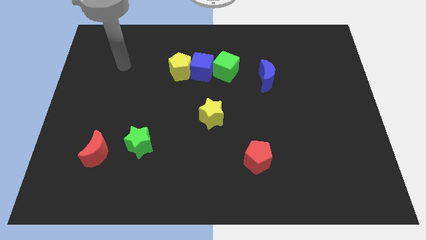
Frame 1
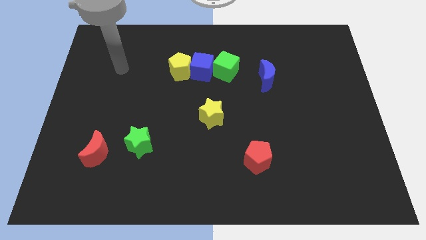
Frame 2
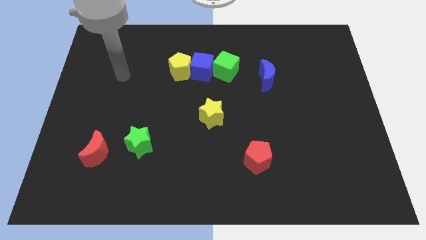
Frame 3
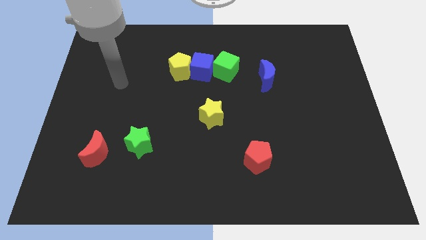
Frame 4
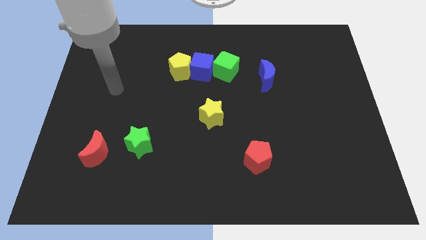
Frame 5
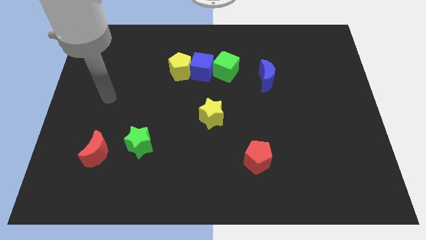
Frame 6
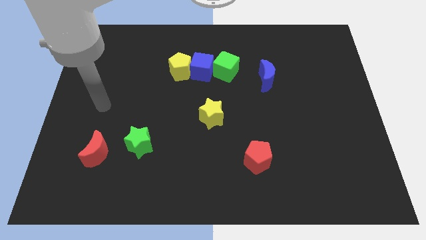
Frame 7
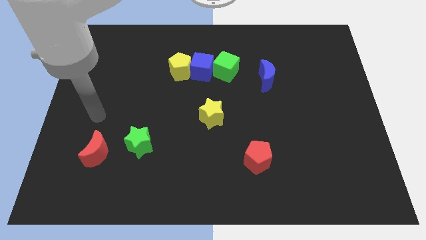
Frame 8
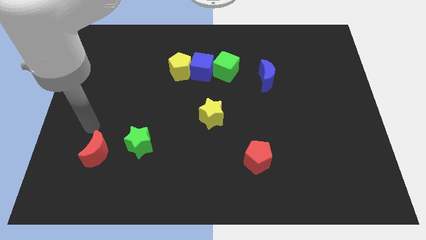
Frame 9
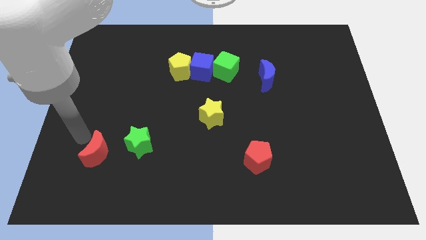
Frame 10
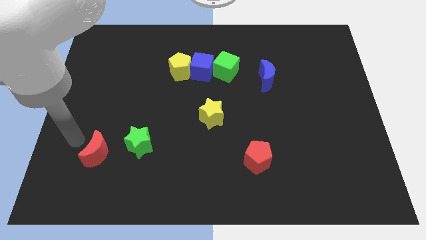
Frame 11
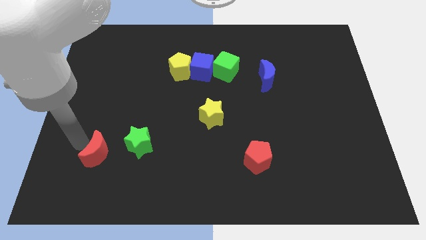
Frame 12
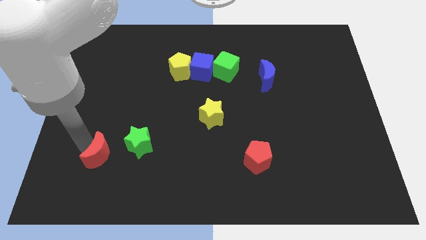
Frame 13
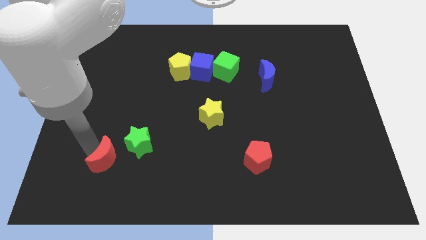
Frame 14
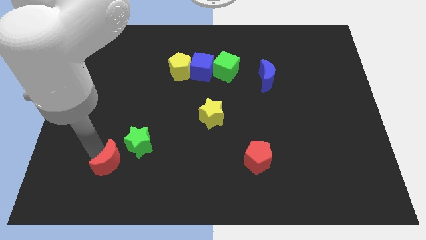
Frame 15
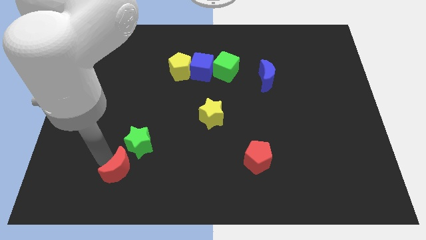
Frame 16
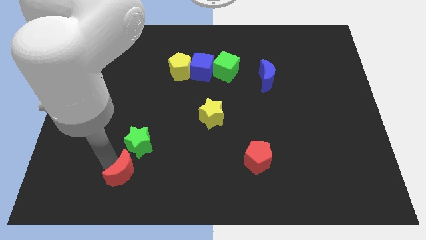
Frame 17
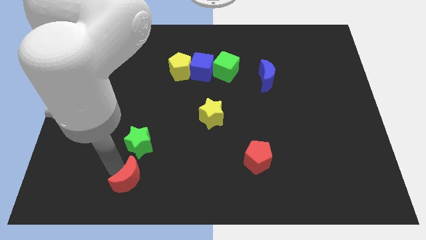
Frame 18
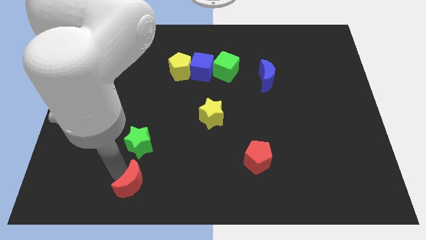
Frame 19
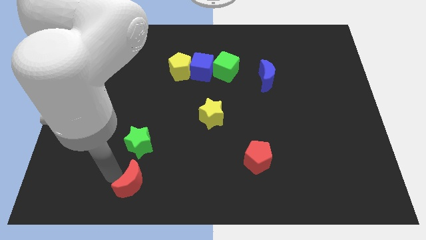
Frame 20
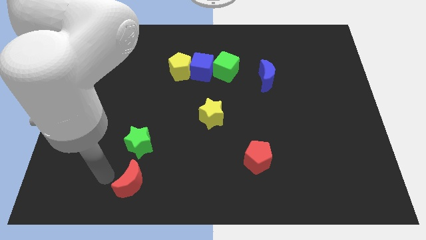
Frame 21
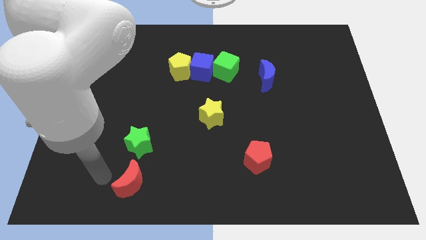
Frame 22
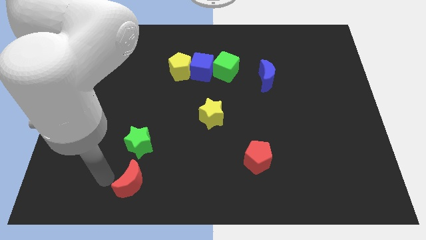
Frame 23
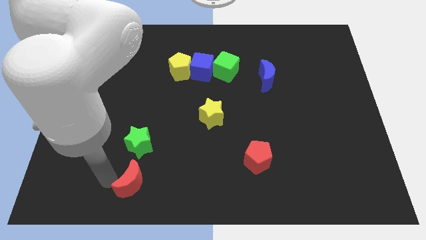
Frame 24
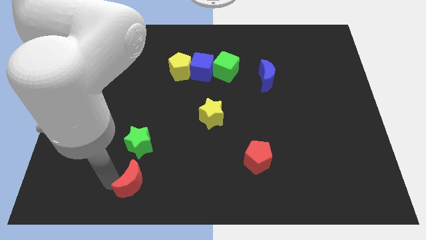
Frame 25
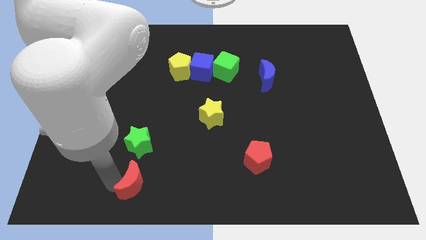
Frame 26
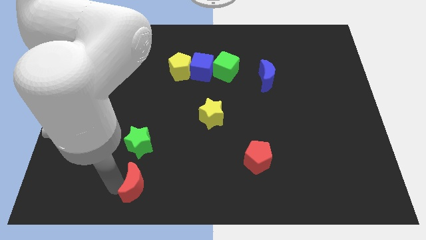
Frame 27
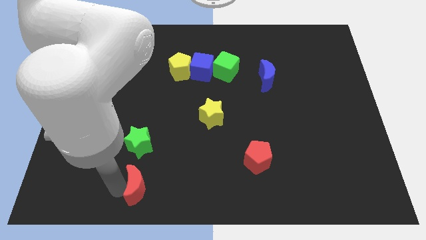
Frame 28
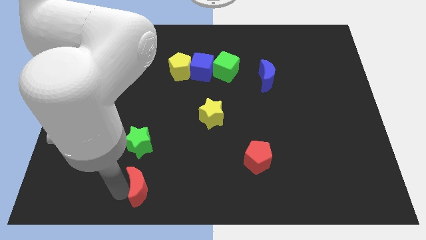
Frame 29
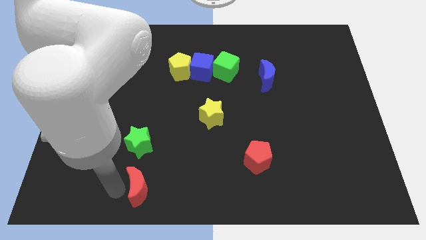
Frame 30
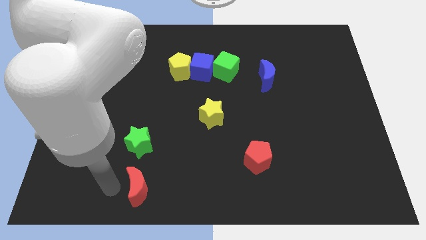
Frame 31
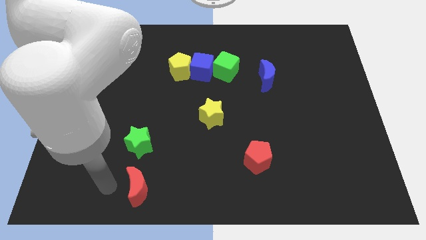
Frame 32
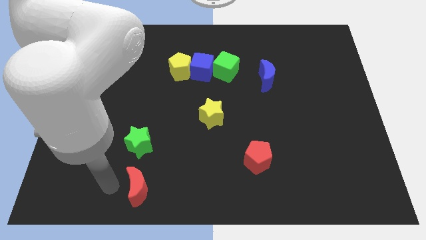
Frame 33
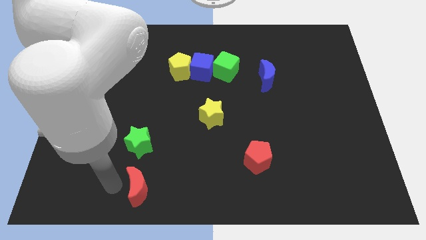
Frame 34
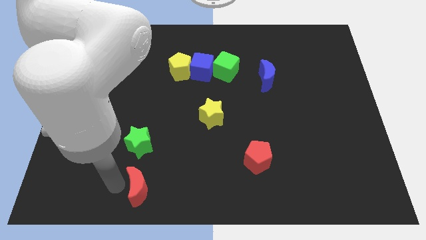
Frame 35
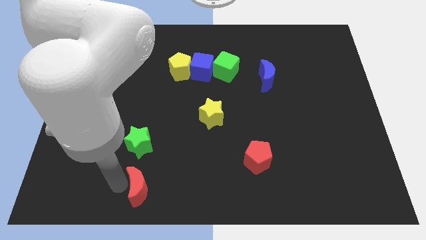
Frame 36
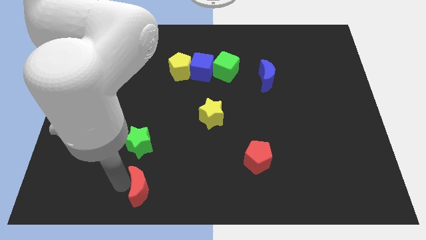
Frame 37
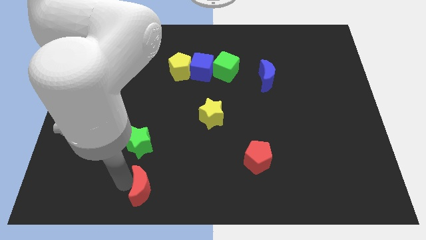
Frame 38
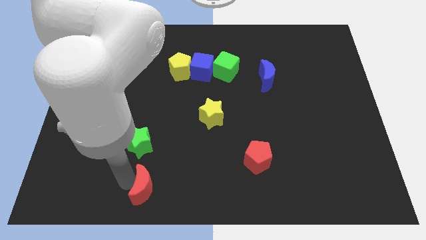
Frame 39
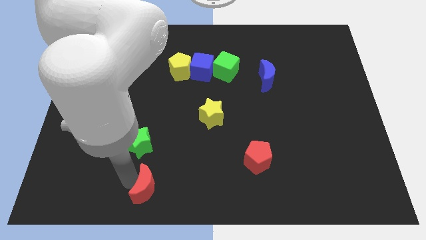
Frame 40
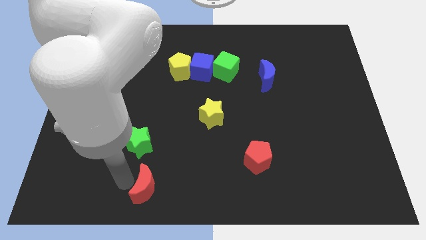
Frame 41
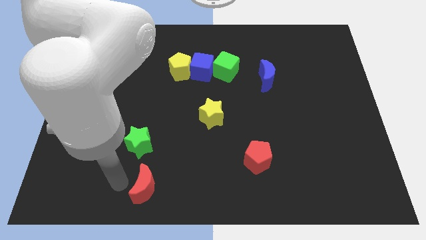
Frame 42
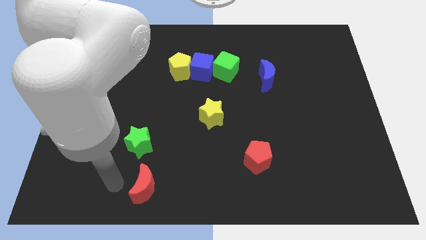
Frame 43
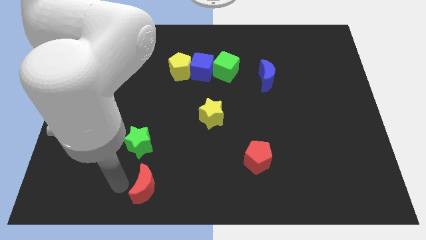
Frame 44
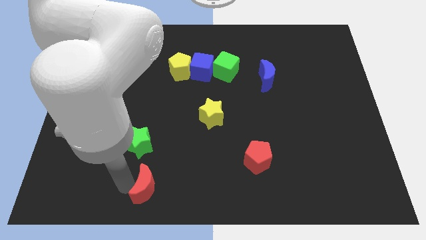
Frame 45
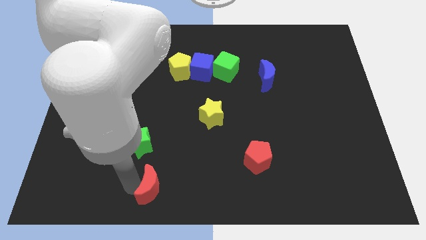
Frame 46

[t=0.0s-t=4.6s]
slide the red moon to the bottom

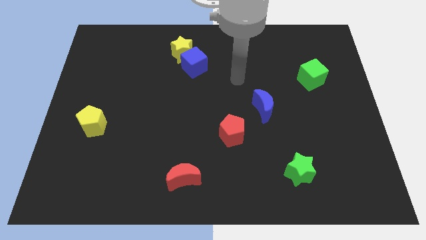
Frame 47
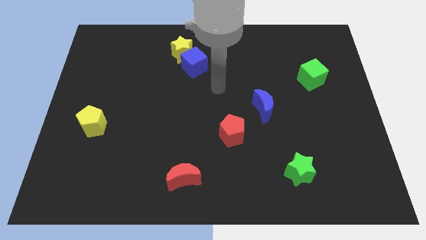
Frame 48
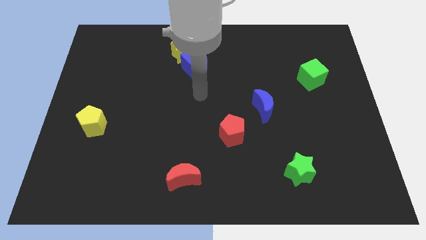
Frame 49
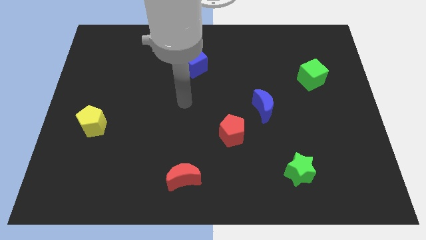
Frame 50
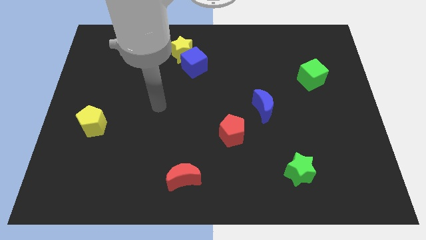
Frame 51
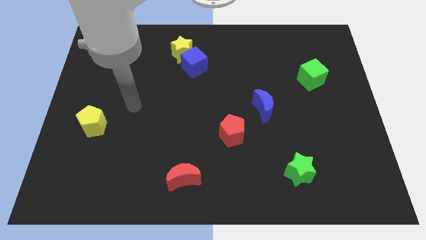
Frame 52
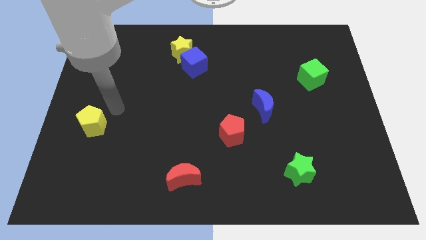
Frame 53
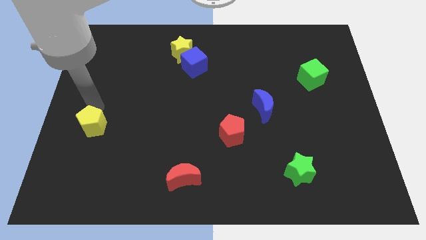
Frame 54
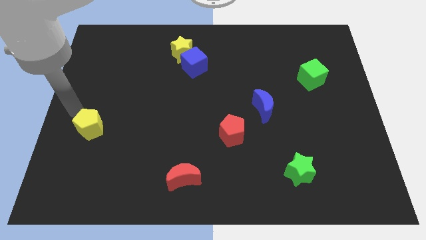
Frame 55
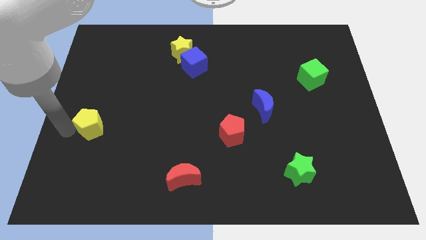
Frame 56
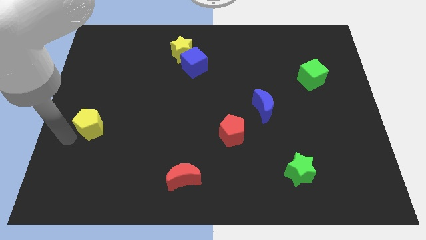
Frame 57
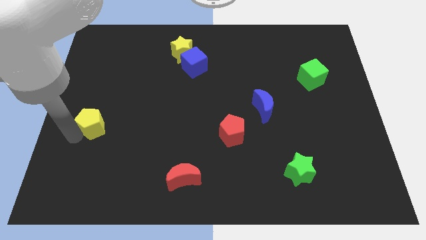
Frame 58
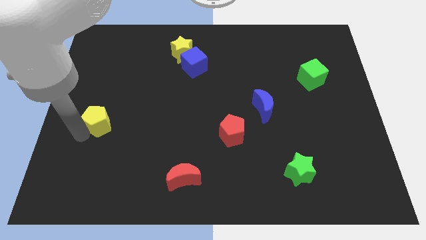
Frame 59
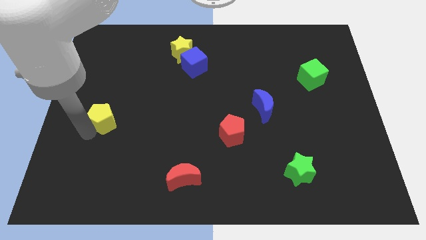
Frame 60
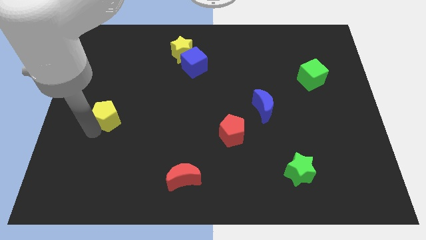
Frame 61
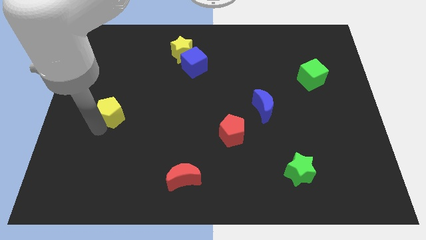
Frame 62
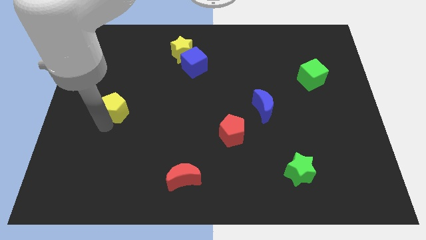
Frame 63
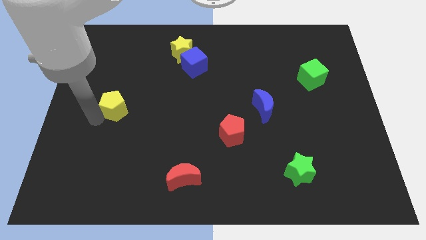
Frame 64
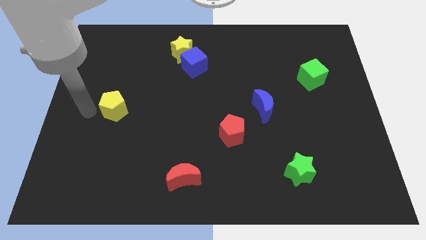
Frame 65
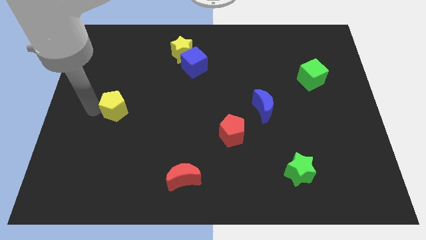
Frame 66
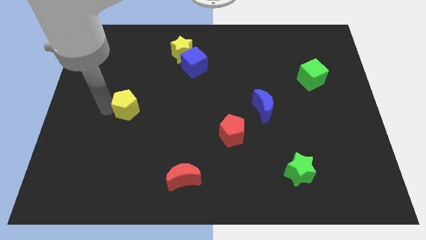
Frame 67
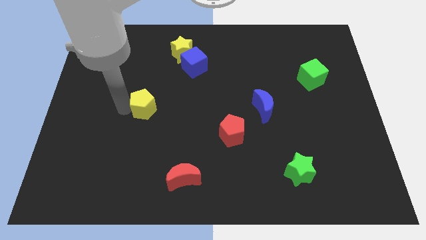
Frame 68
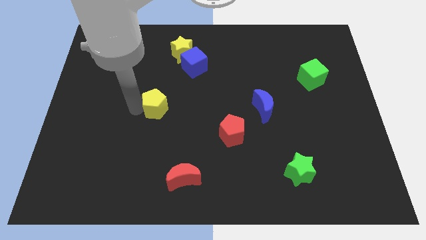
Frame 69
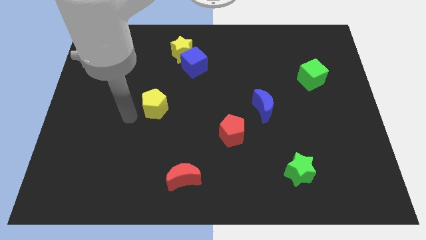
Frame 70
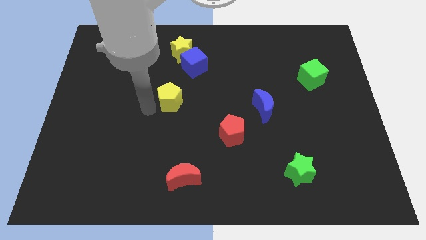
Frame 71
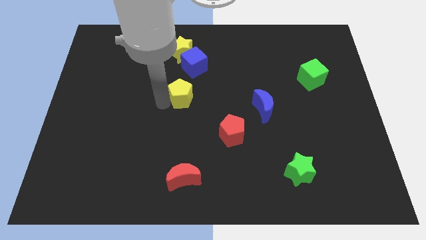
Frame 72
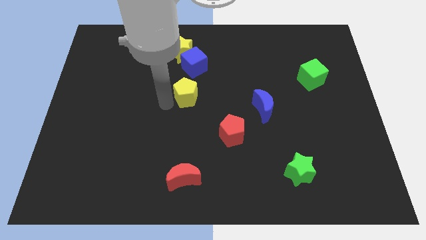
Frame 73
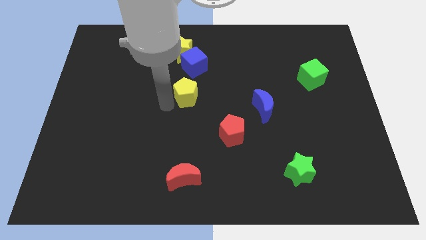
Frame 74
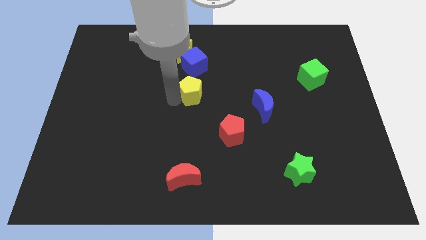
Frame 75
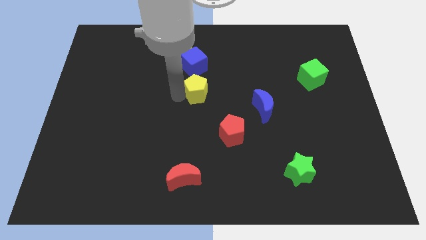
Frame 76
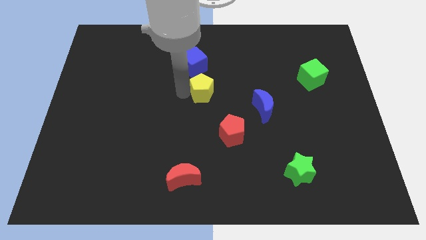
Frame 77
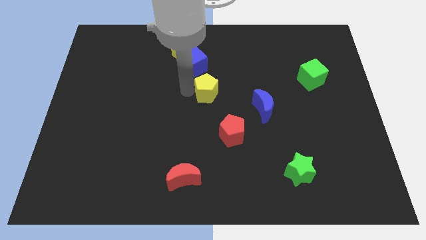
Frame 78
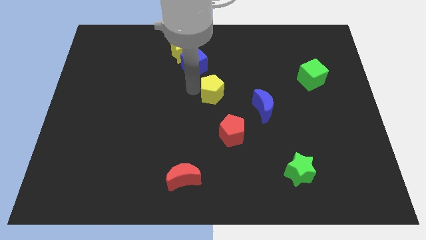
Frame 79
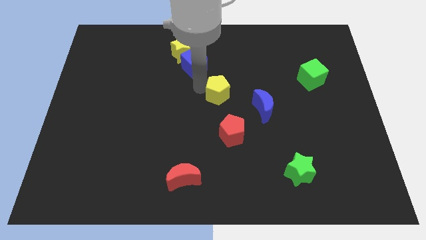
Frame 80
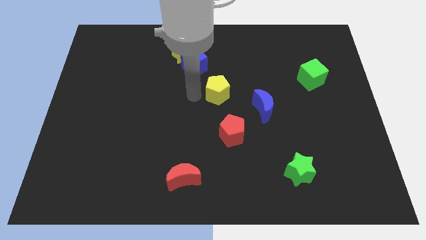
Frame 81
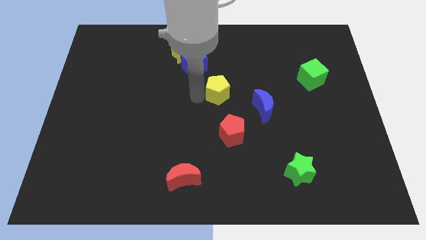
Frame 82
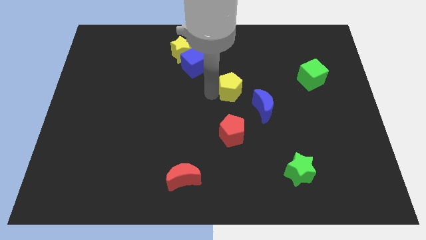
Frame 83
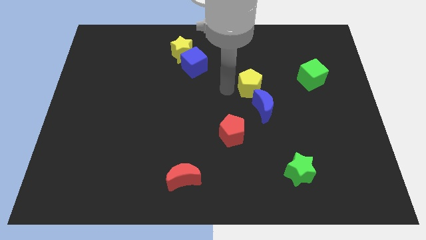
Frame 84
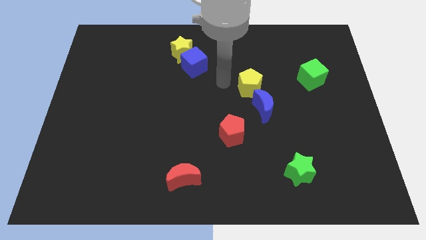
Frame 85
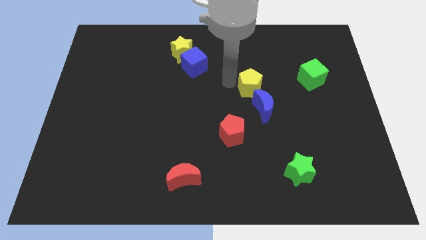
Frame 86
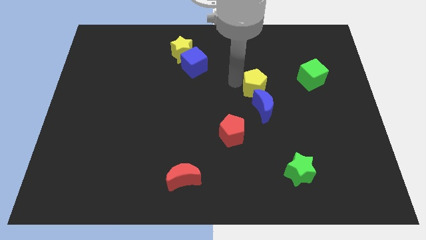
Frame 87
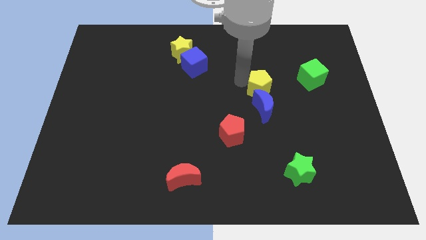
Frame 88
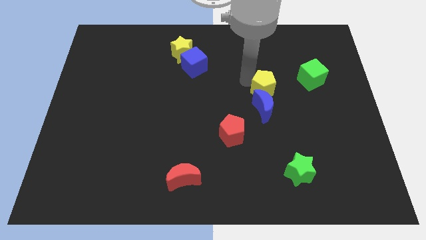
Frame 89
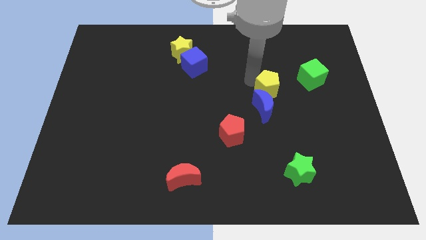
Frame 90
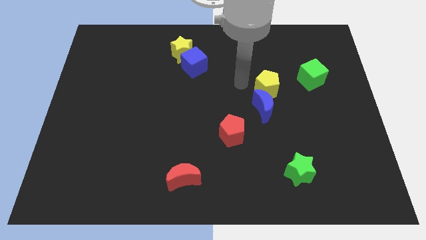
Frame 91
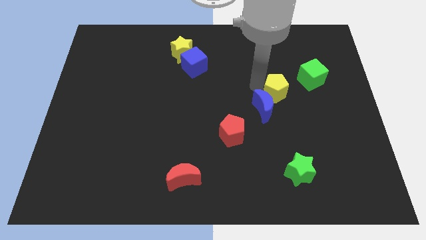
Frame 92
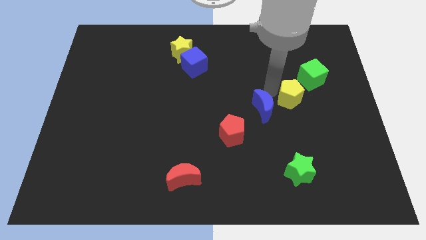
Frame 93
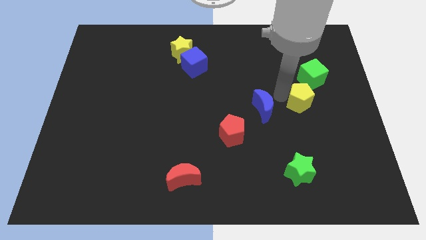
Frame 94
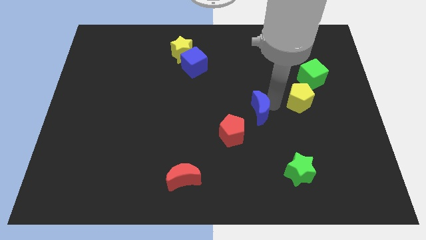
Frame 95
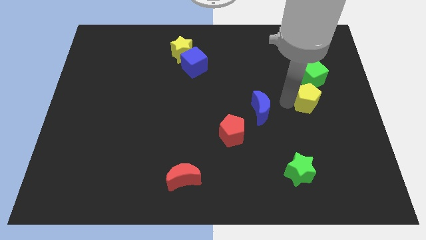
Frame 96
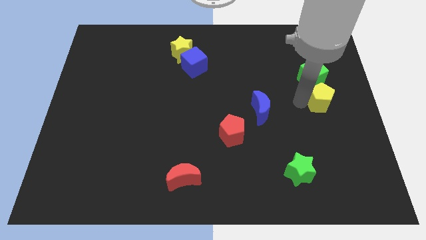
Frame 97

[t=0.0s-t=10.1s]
put the yellow pentagon to the right side
